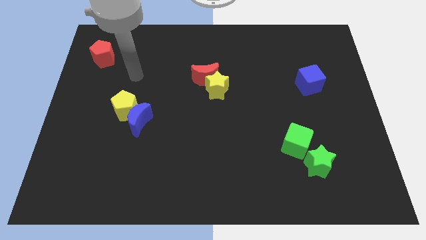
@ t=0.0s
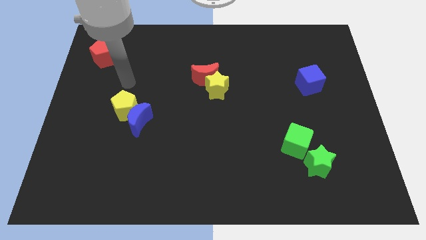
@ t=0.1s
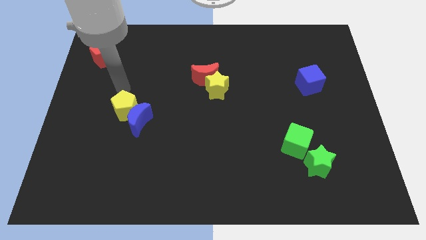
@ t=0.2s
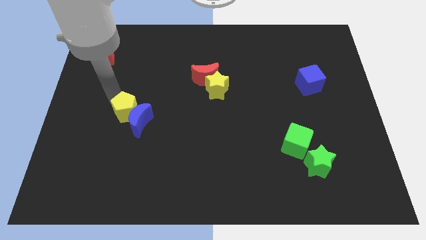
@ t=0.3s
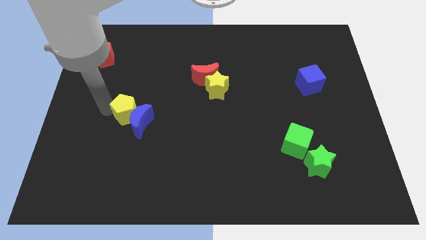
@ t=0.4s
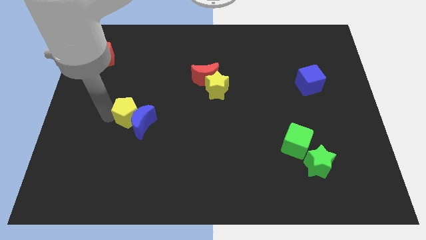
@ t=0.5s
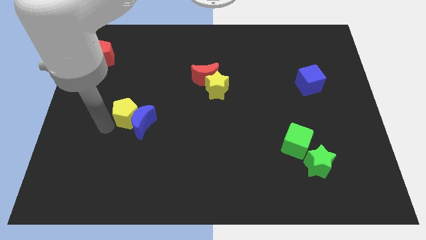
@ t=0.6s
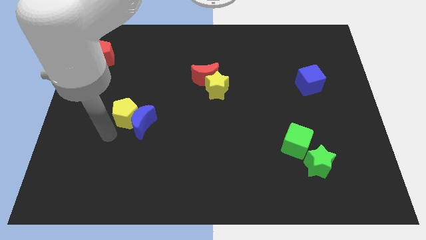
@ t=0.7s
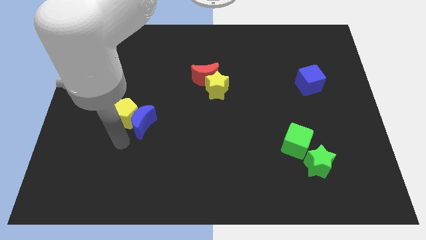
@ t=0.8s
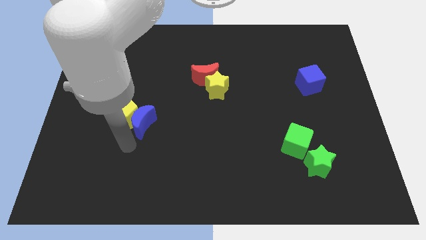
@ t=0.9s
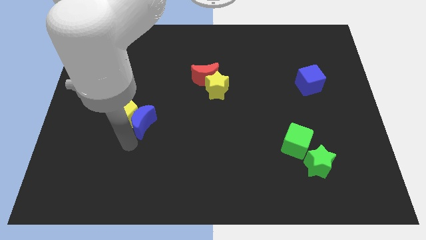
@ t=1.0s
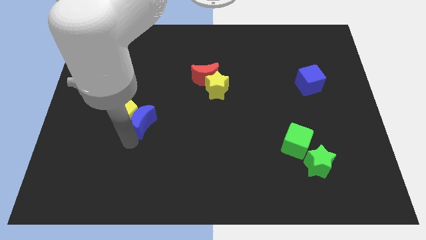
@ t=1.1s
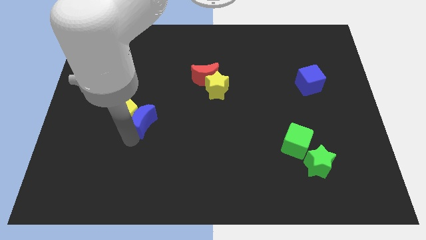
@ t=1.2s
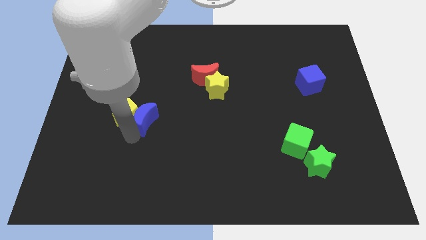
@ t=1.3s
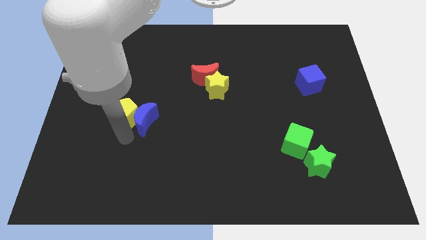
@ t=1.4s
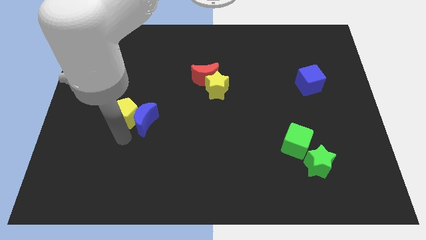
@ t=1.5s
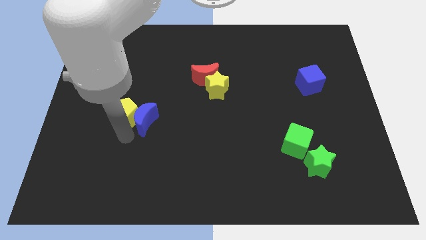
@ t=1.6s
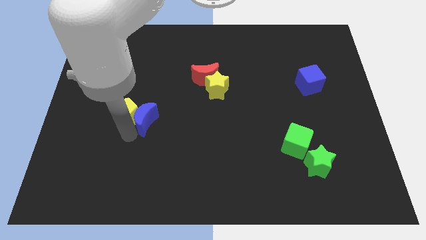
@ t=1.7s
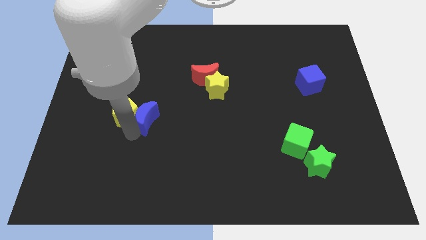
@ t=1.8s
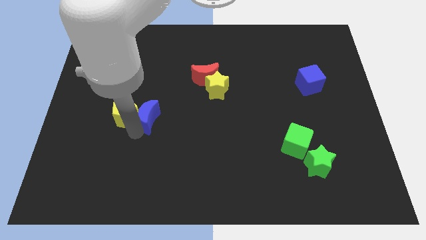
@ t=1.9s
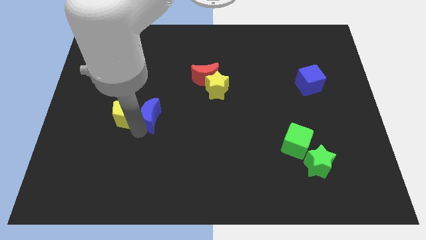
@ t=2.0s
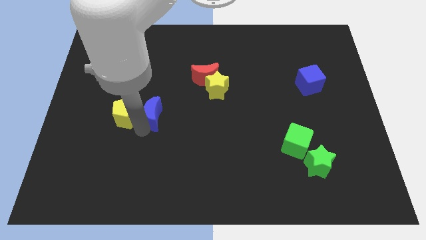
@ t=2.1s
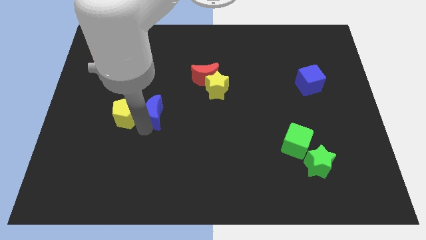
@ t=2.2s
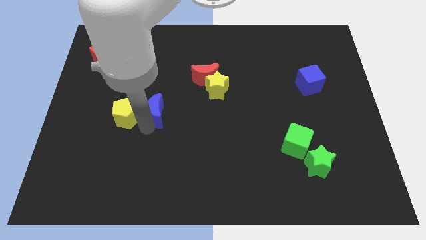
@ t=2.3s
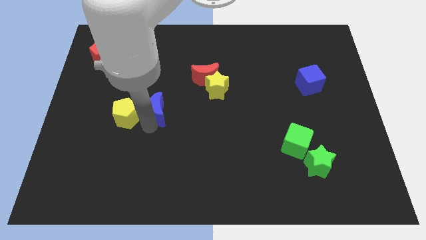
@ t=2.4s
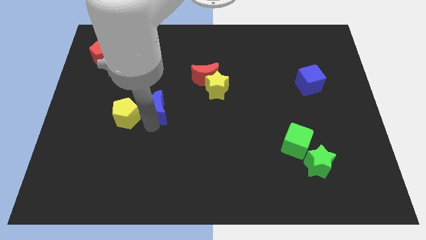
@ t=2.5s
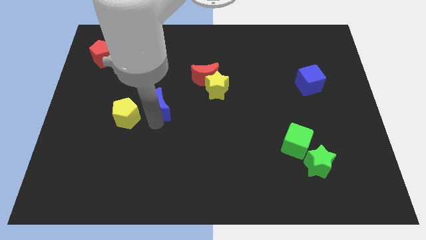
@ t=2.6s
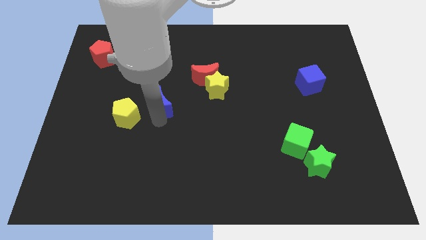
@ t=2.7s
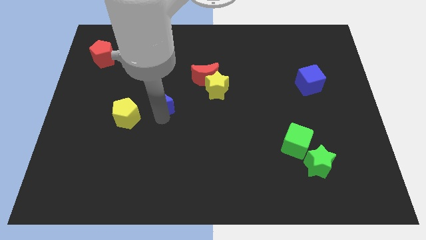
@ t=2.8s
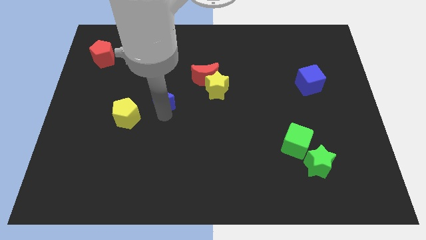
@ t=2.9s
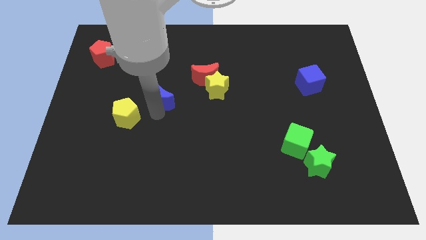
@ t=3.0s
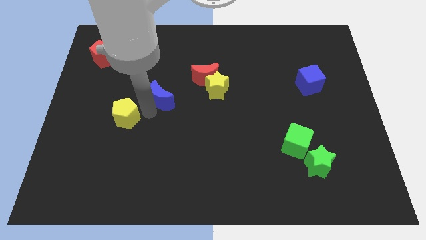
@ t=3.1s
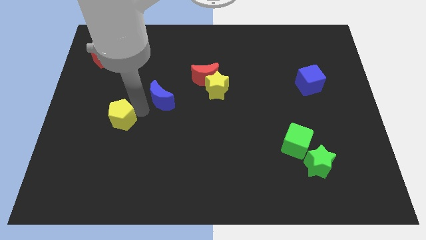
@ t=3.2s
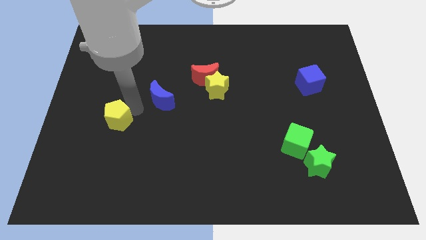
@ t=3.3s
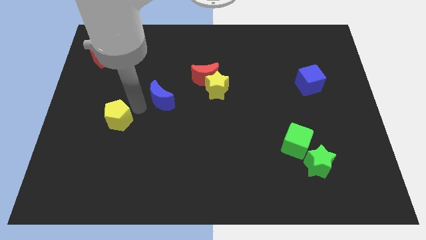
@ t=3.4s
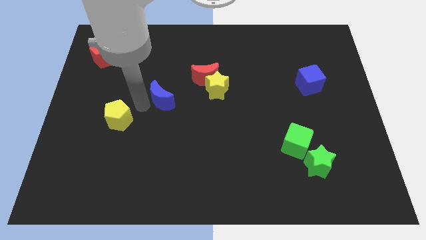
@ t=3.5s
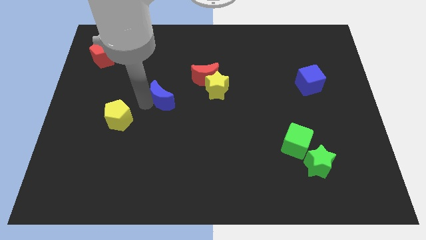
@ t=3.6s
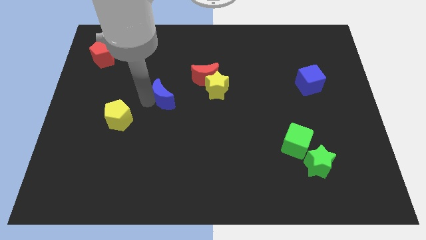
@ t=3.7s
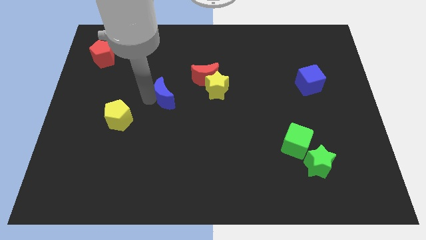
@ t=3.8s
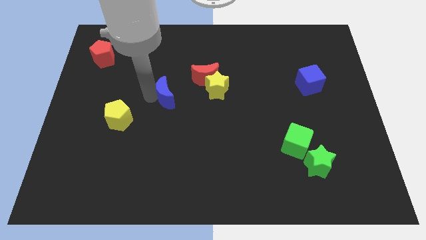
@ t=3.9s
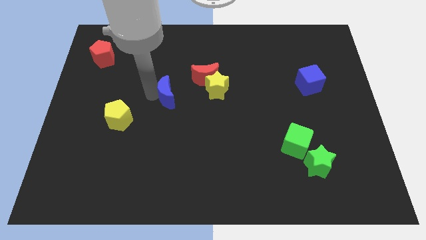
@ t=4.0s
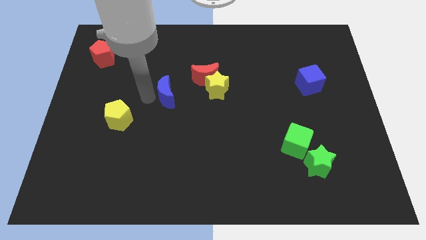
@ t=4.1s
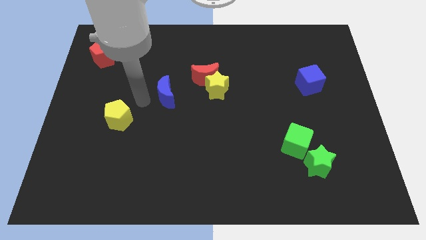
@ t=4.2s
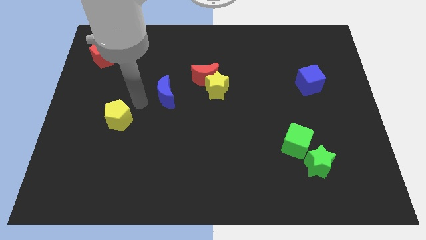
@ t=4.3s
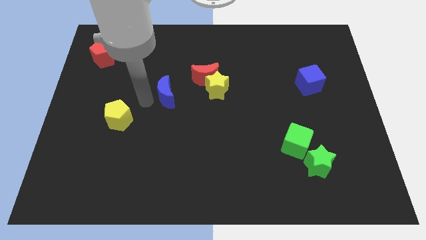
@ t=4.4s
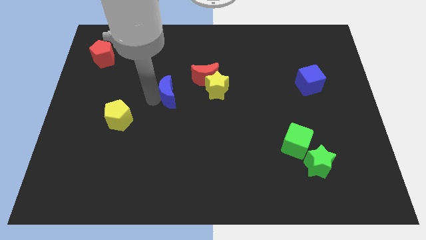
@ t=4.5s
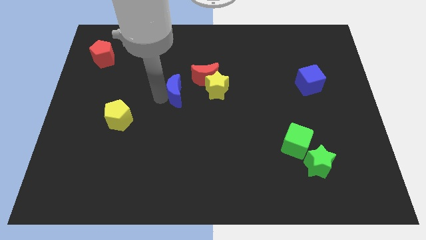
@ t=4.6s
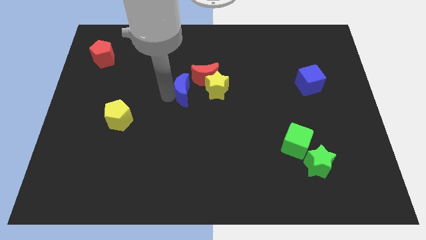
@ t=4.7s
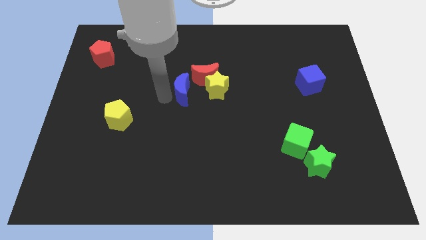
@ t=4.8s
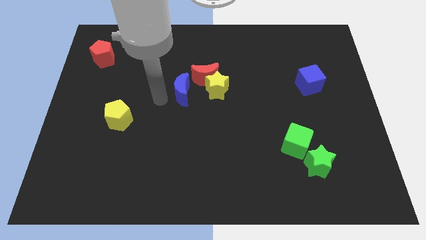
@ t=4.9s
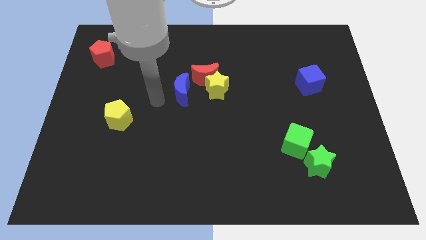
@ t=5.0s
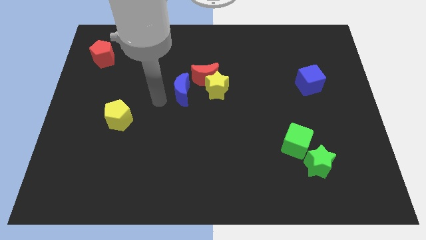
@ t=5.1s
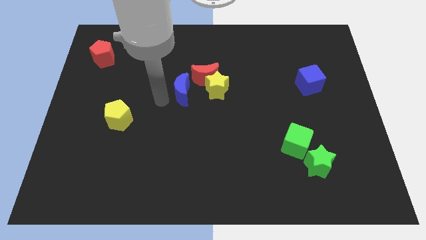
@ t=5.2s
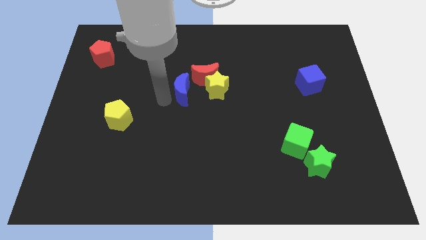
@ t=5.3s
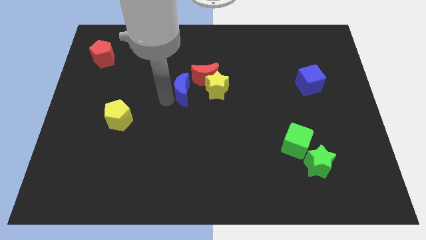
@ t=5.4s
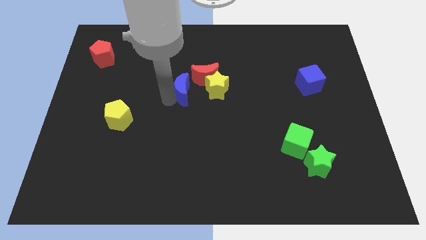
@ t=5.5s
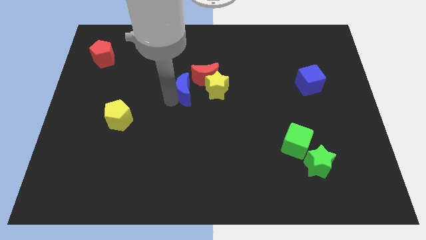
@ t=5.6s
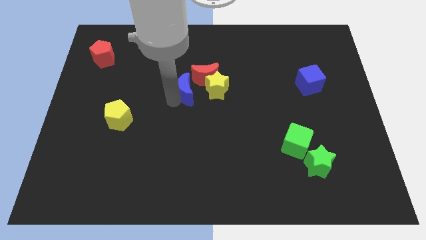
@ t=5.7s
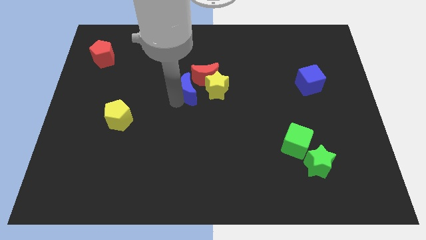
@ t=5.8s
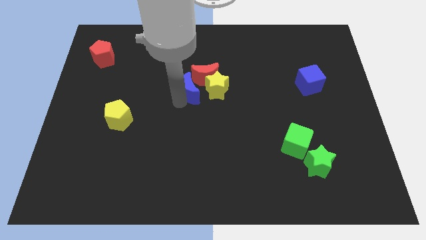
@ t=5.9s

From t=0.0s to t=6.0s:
put the blue moon next to the red moon

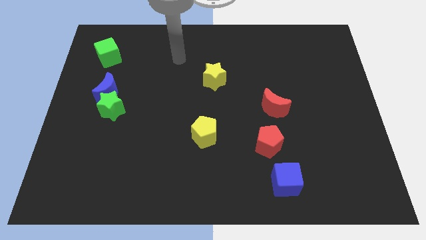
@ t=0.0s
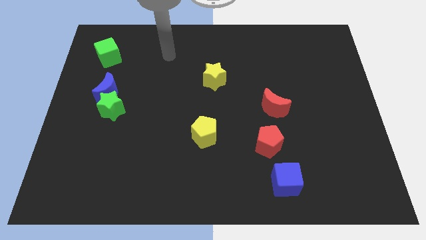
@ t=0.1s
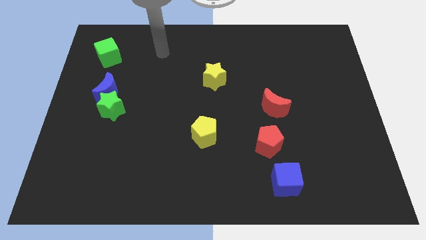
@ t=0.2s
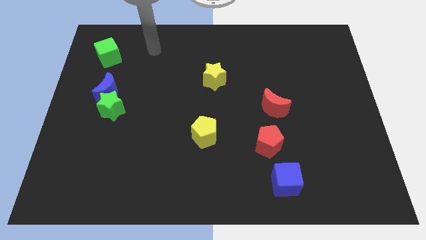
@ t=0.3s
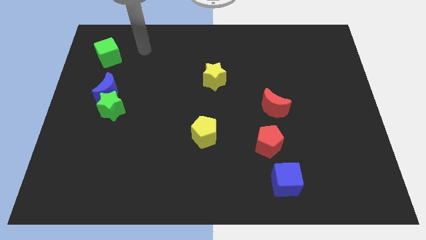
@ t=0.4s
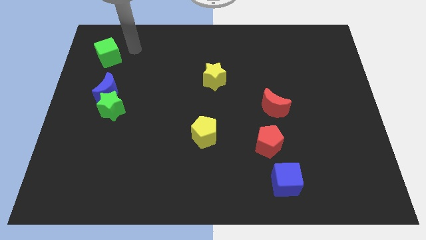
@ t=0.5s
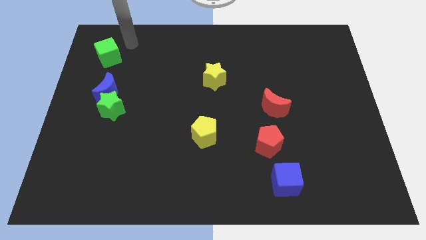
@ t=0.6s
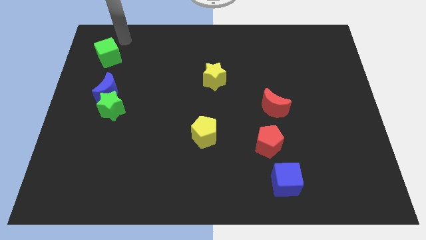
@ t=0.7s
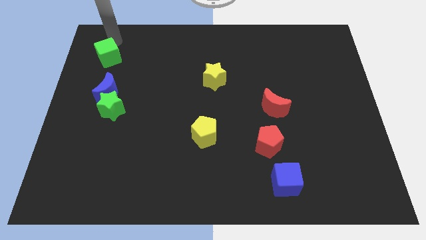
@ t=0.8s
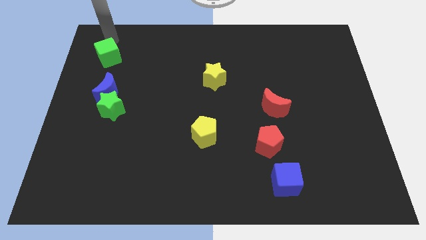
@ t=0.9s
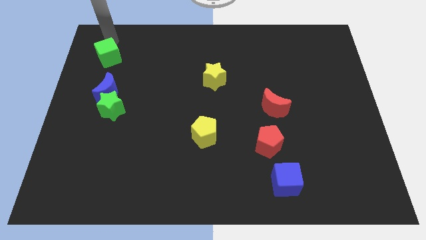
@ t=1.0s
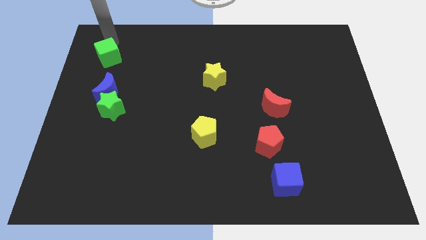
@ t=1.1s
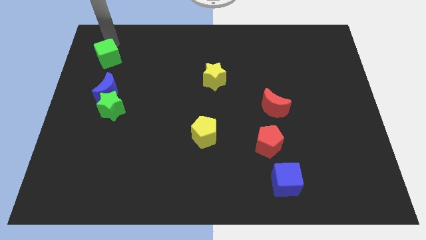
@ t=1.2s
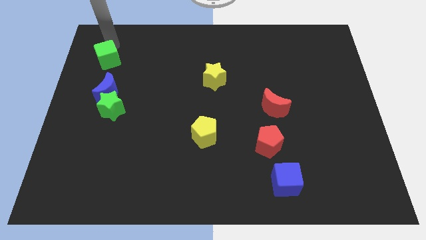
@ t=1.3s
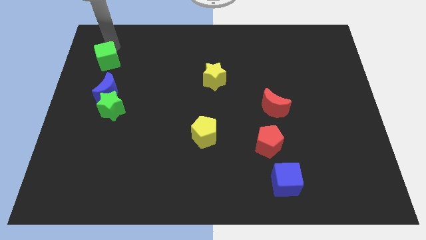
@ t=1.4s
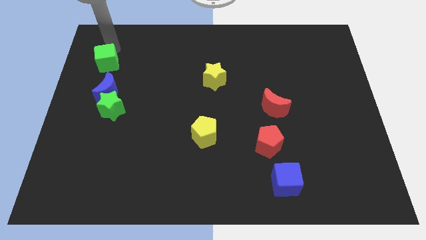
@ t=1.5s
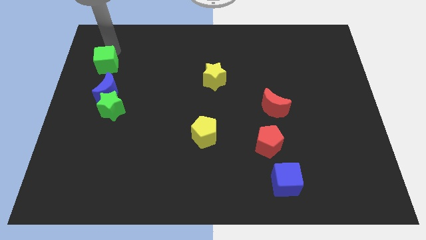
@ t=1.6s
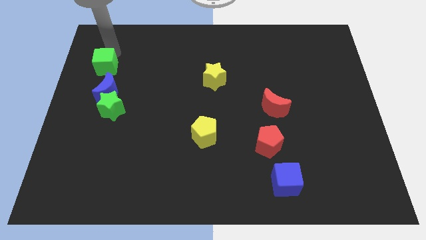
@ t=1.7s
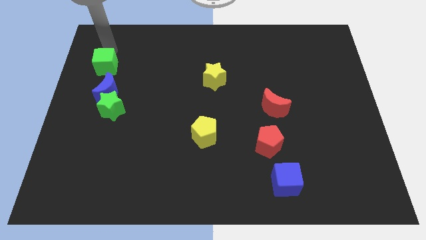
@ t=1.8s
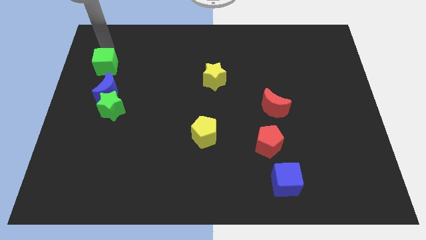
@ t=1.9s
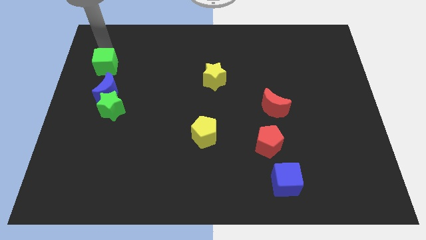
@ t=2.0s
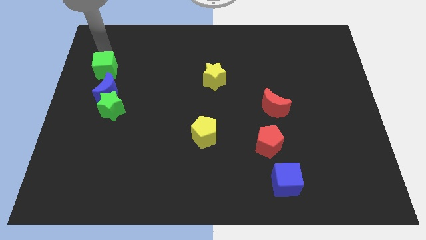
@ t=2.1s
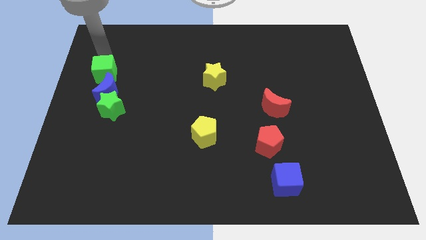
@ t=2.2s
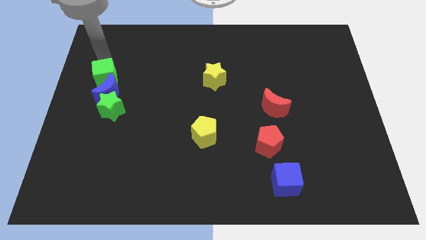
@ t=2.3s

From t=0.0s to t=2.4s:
move the green cube to the blue moon

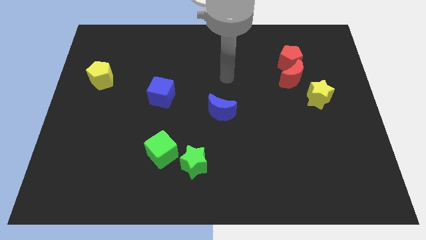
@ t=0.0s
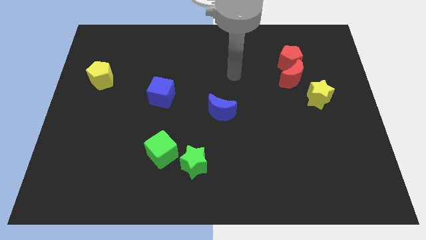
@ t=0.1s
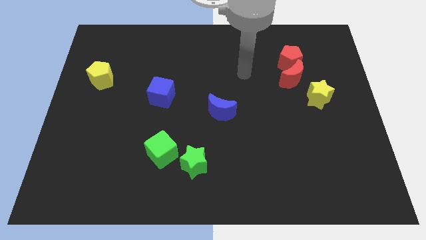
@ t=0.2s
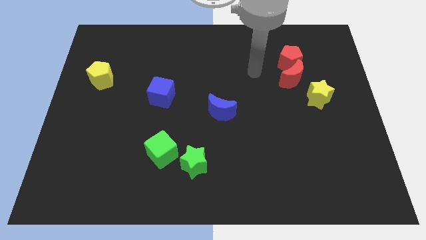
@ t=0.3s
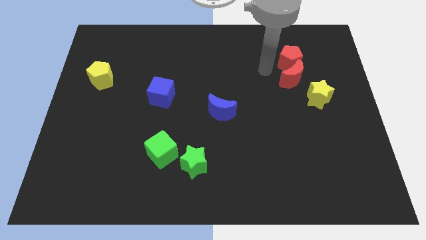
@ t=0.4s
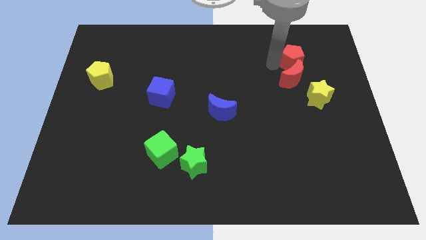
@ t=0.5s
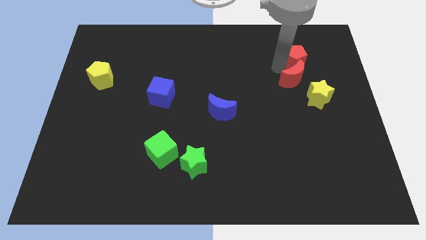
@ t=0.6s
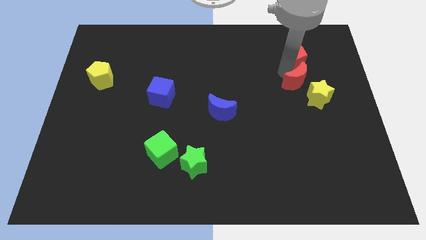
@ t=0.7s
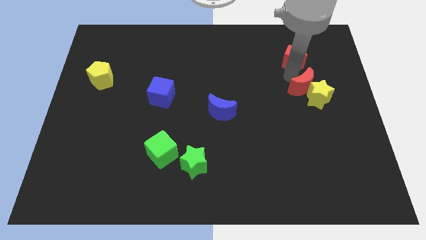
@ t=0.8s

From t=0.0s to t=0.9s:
move the red moon next to the yellow star
